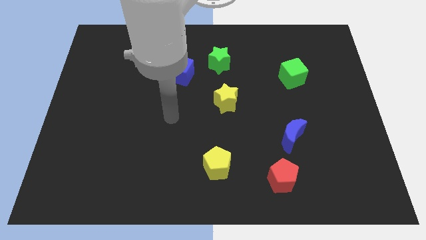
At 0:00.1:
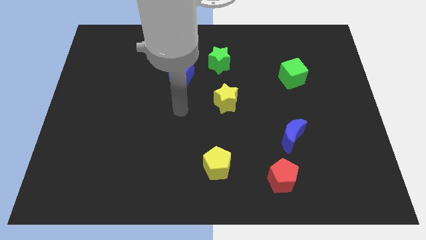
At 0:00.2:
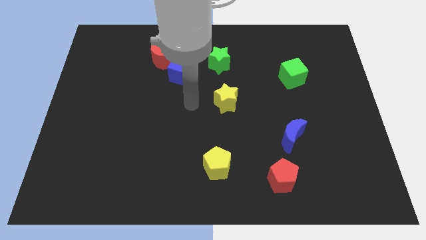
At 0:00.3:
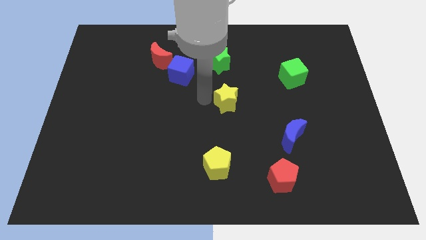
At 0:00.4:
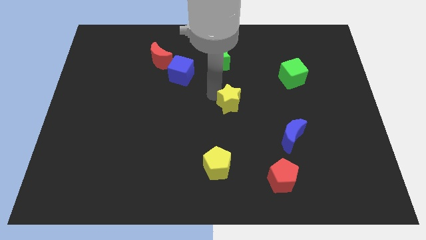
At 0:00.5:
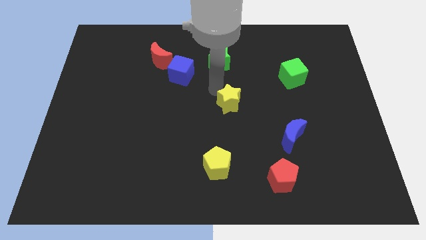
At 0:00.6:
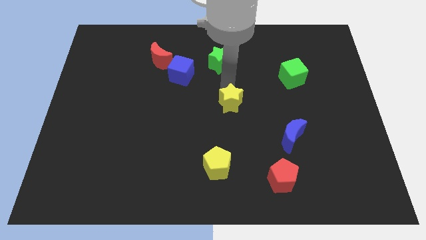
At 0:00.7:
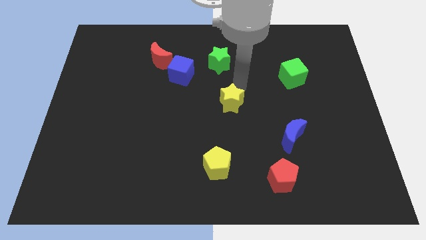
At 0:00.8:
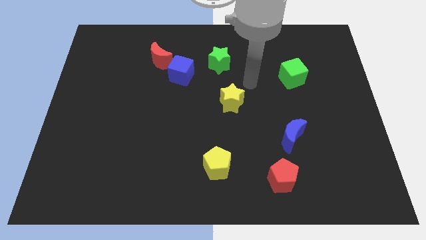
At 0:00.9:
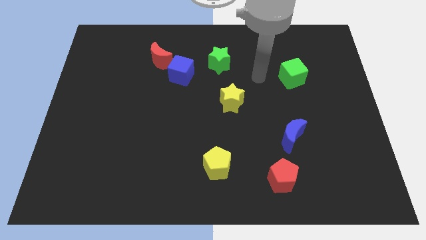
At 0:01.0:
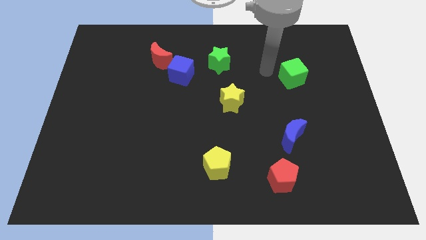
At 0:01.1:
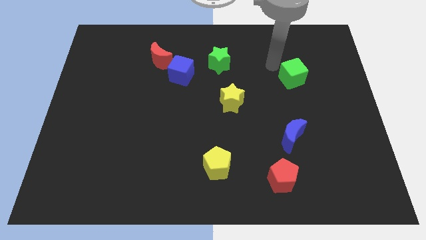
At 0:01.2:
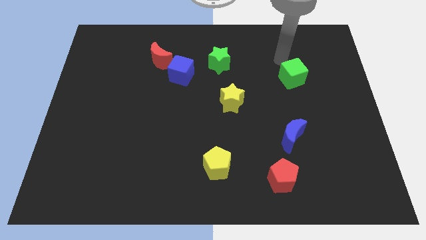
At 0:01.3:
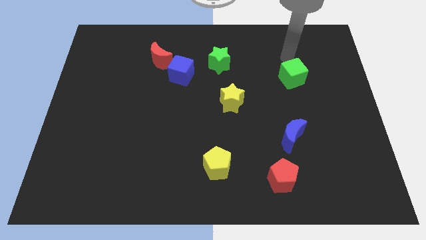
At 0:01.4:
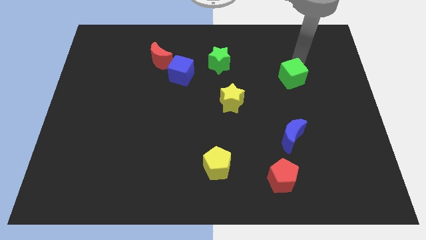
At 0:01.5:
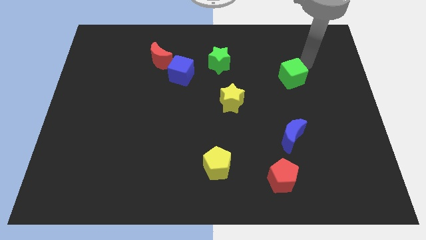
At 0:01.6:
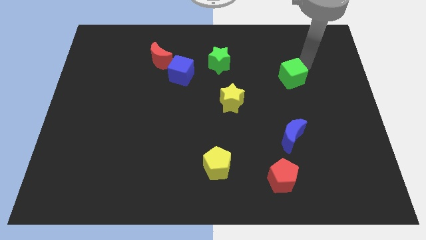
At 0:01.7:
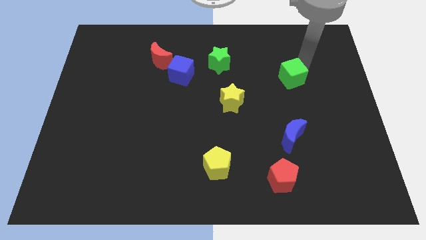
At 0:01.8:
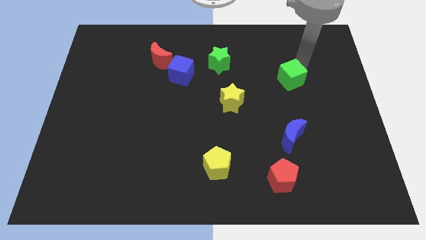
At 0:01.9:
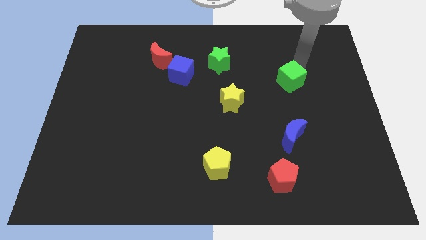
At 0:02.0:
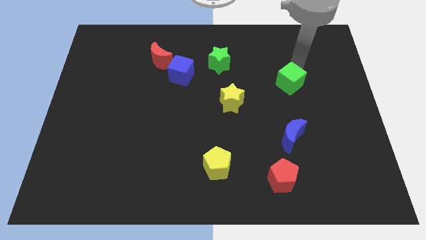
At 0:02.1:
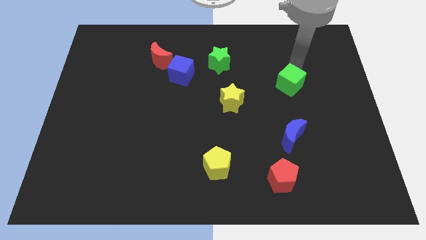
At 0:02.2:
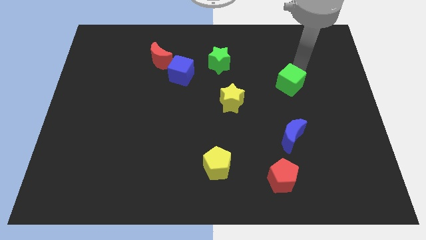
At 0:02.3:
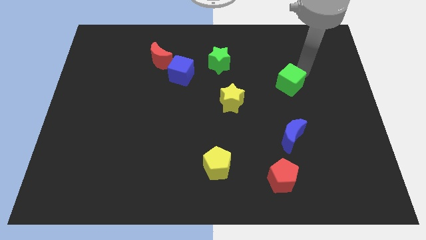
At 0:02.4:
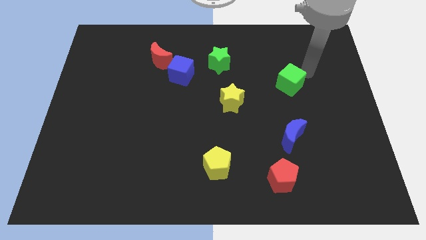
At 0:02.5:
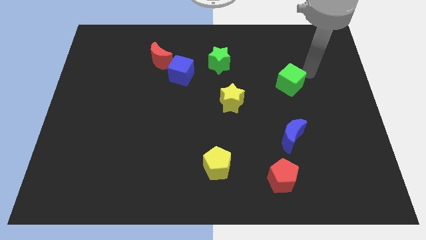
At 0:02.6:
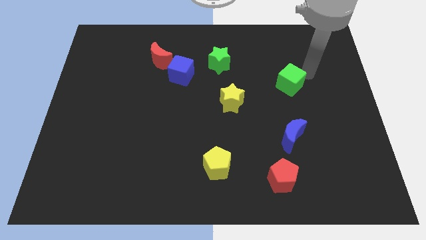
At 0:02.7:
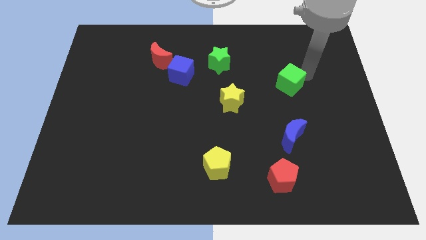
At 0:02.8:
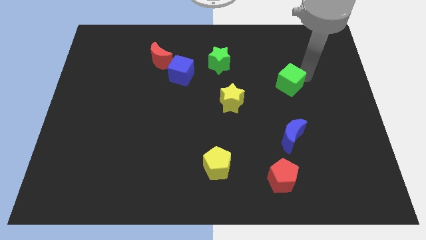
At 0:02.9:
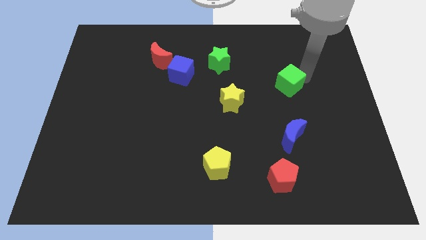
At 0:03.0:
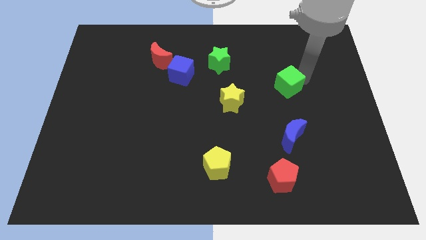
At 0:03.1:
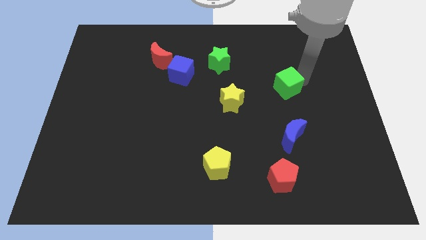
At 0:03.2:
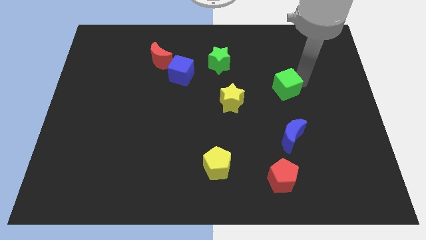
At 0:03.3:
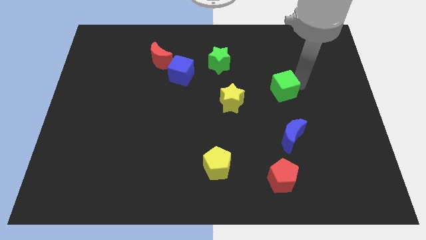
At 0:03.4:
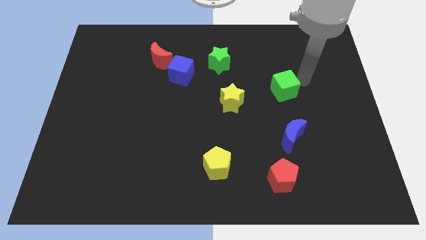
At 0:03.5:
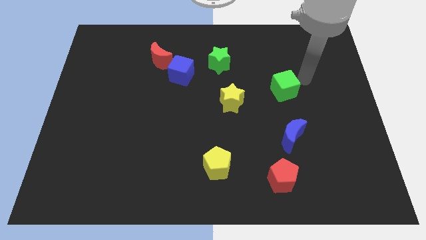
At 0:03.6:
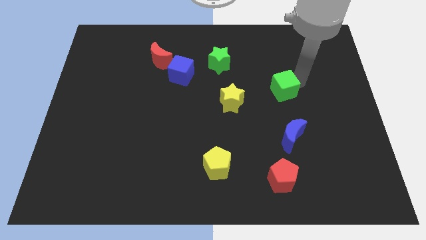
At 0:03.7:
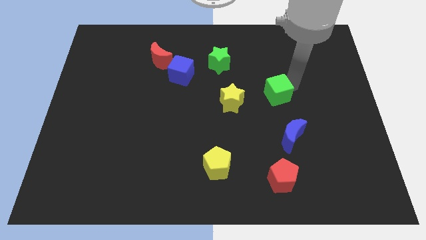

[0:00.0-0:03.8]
slightly push the green cube downwards and left diagonally

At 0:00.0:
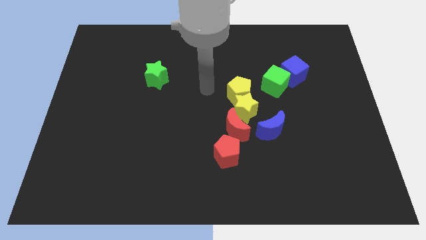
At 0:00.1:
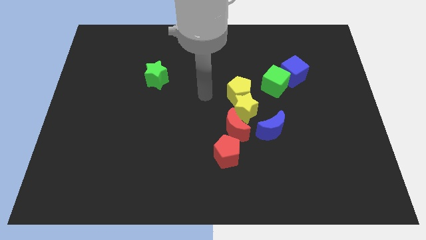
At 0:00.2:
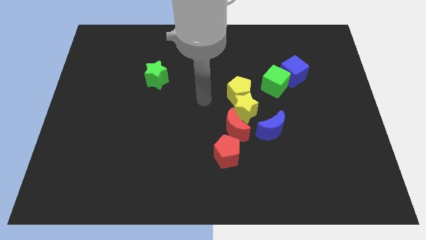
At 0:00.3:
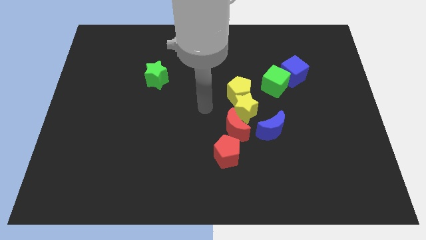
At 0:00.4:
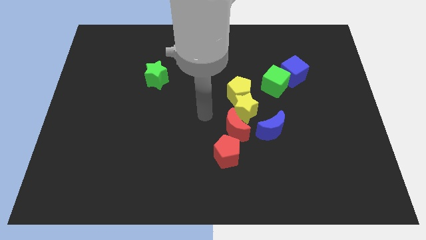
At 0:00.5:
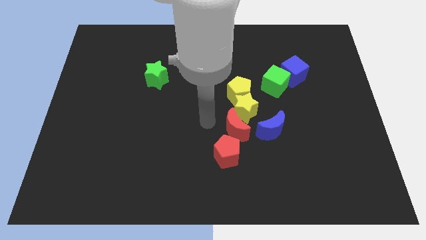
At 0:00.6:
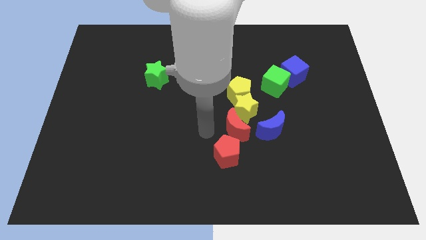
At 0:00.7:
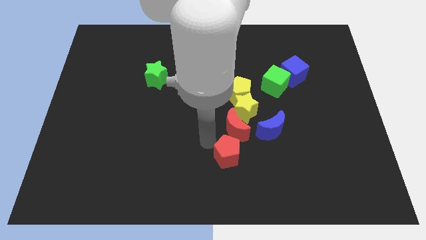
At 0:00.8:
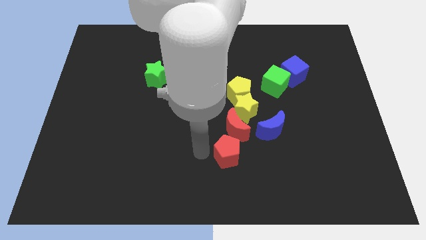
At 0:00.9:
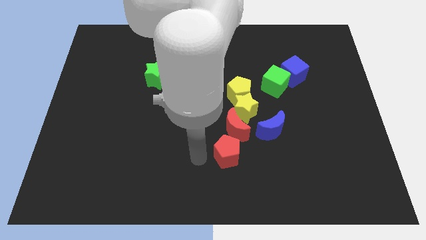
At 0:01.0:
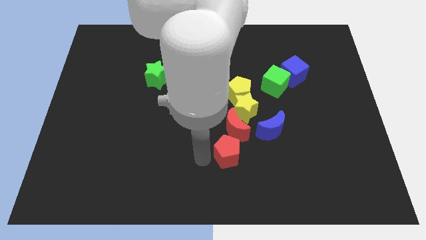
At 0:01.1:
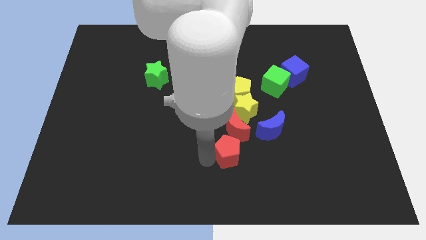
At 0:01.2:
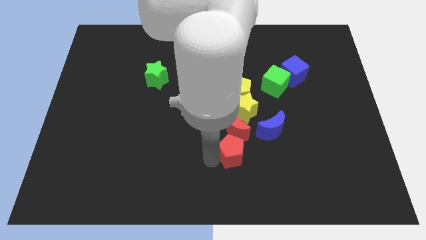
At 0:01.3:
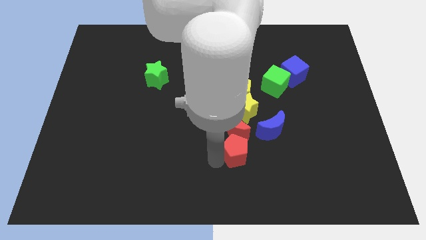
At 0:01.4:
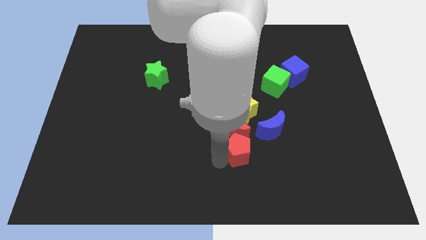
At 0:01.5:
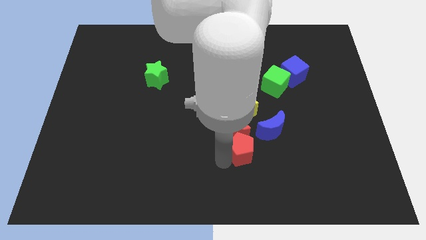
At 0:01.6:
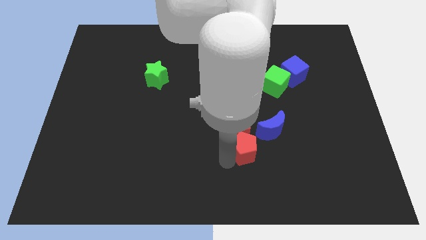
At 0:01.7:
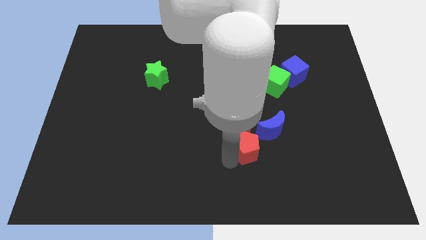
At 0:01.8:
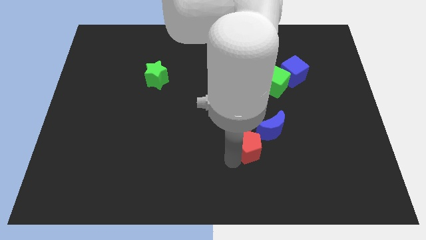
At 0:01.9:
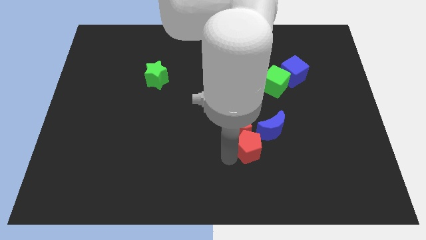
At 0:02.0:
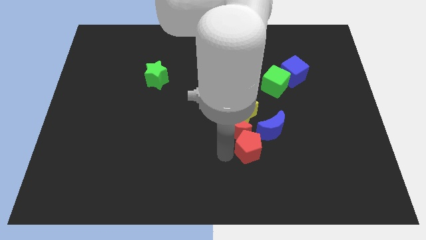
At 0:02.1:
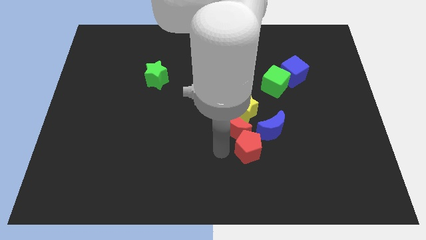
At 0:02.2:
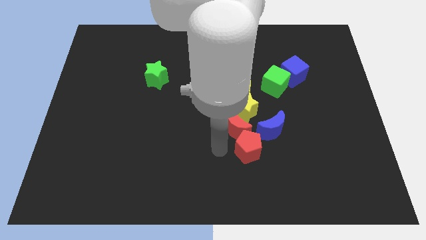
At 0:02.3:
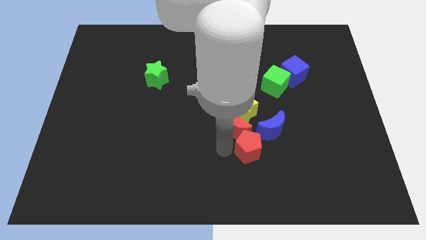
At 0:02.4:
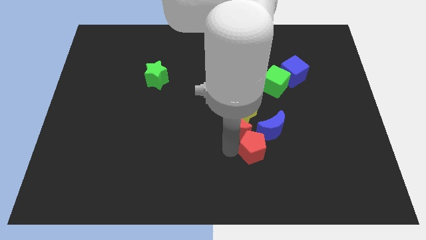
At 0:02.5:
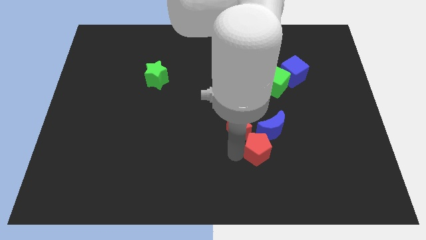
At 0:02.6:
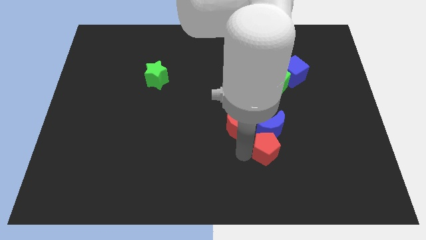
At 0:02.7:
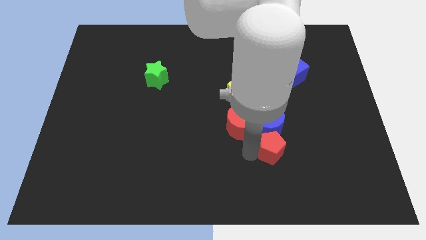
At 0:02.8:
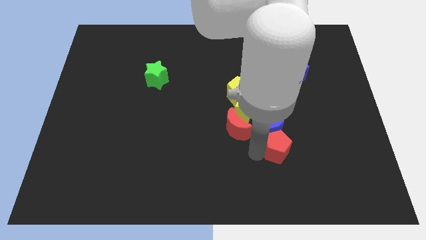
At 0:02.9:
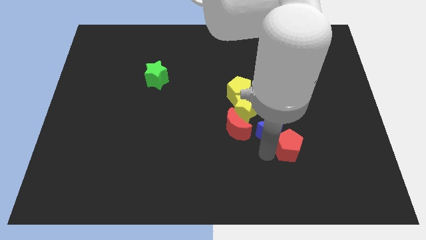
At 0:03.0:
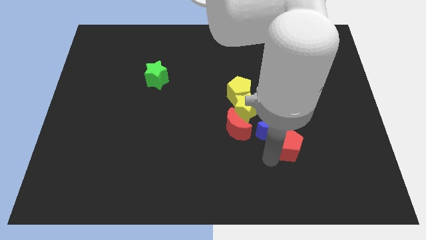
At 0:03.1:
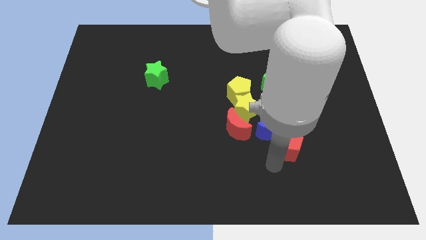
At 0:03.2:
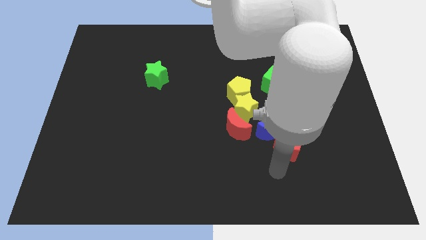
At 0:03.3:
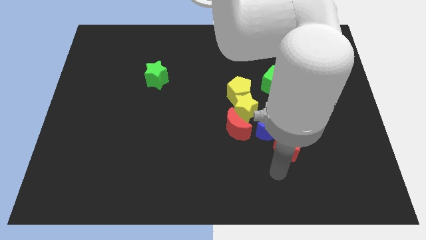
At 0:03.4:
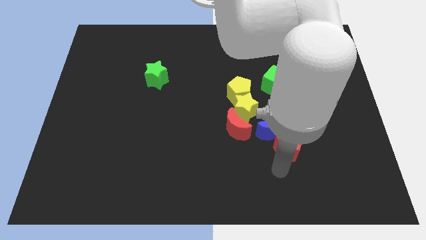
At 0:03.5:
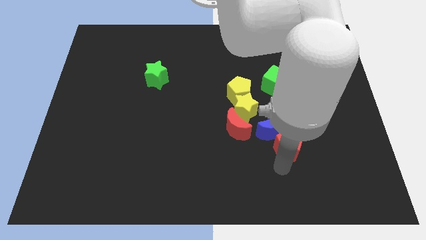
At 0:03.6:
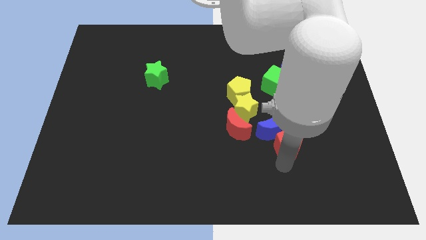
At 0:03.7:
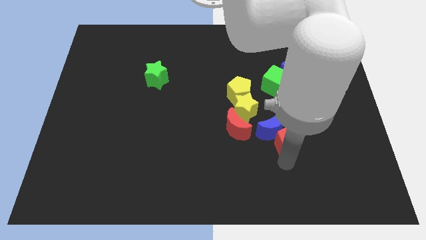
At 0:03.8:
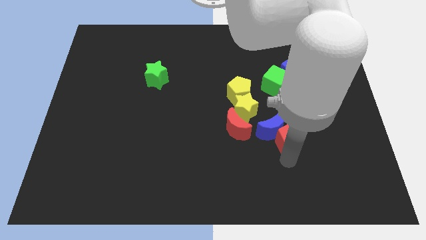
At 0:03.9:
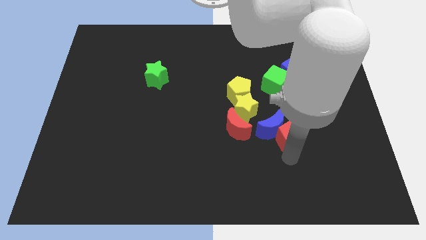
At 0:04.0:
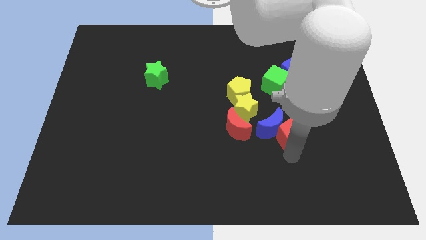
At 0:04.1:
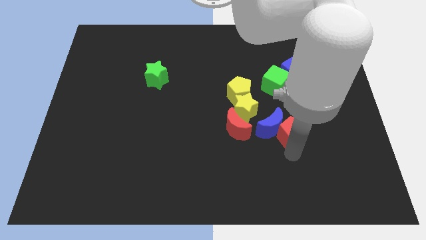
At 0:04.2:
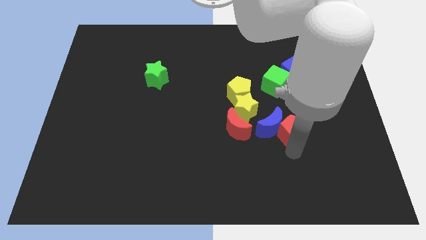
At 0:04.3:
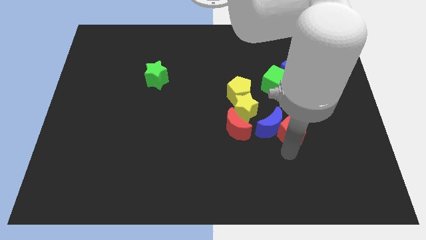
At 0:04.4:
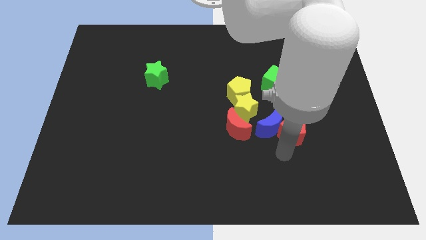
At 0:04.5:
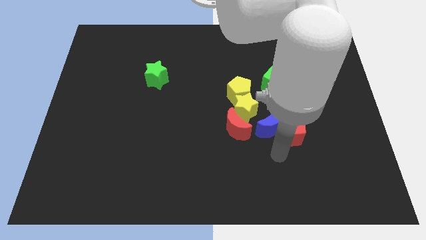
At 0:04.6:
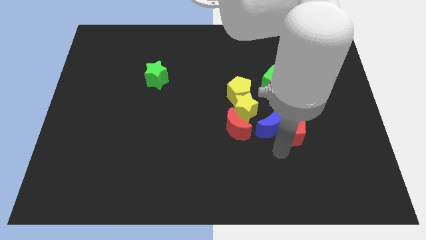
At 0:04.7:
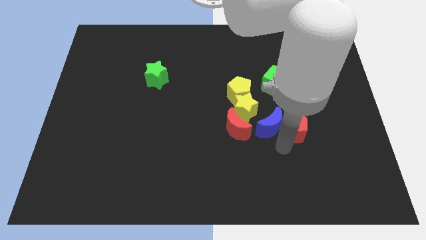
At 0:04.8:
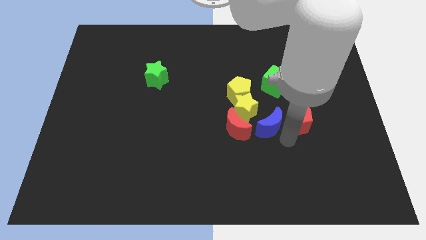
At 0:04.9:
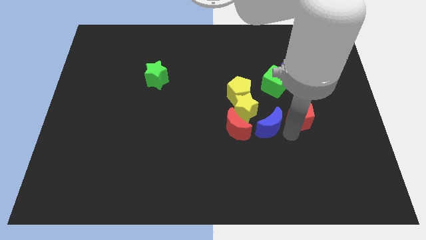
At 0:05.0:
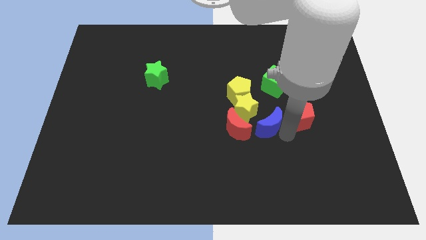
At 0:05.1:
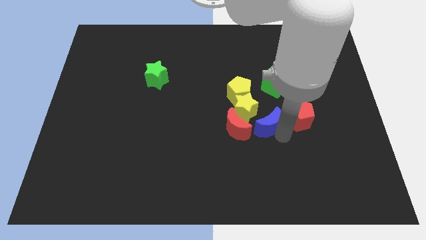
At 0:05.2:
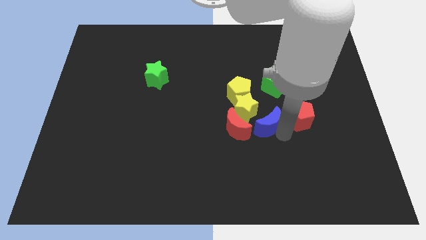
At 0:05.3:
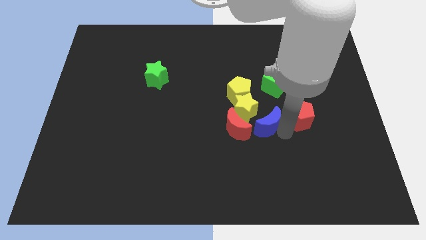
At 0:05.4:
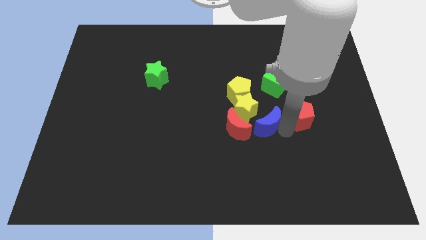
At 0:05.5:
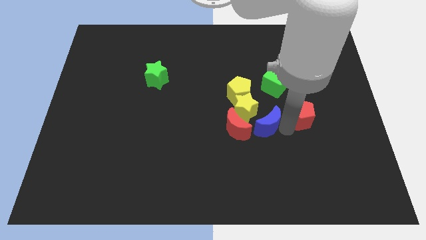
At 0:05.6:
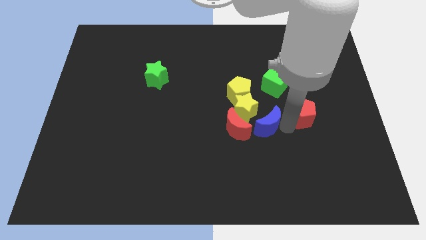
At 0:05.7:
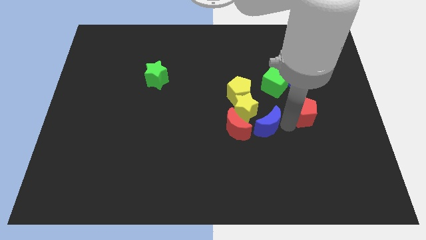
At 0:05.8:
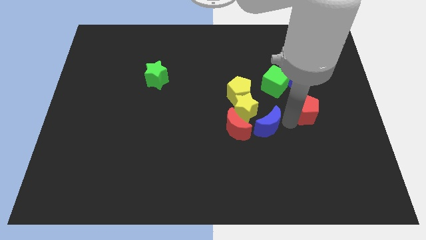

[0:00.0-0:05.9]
move the red pentagon diagonally up and to the right
